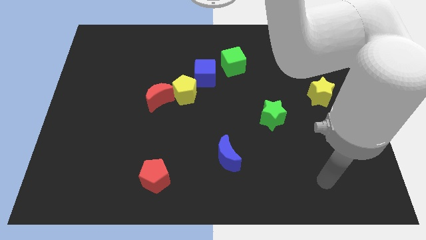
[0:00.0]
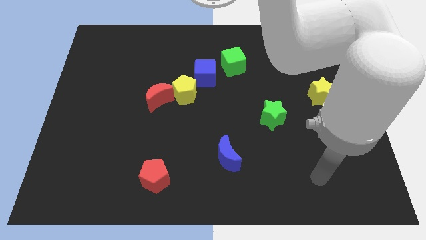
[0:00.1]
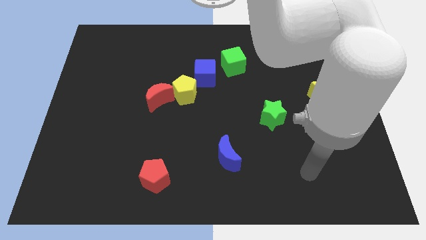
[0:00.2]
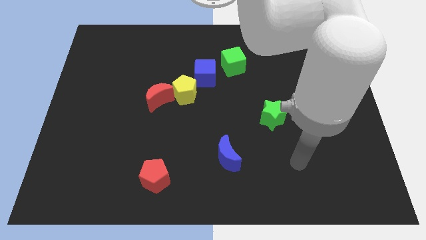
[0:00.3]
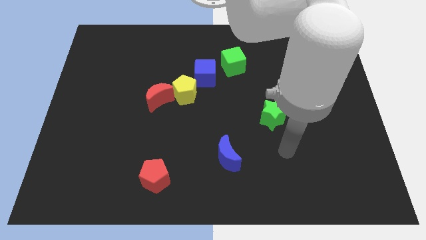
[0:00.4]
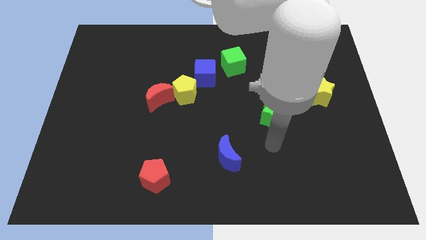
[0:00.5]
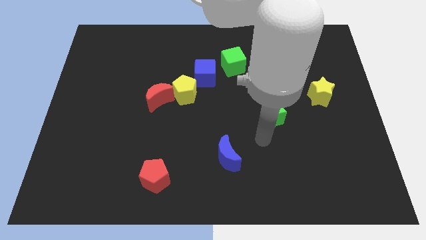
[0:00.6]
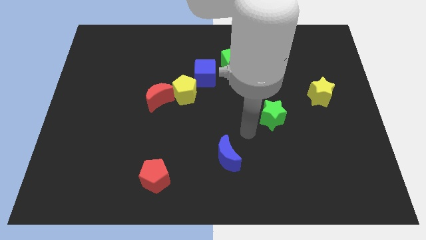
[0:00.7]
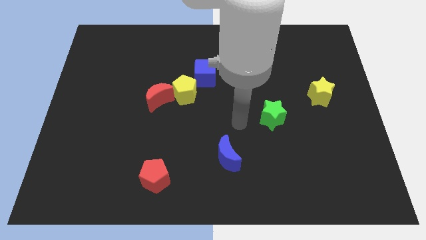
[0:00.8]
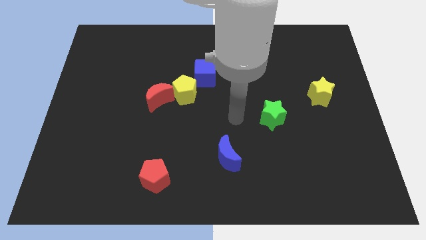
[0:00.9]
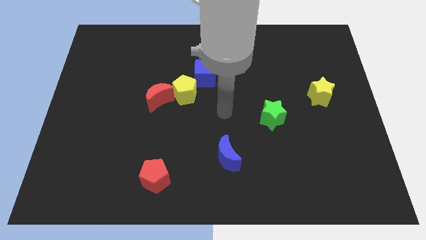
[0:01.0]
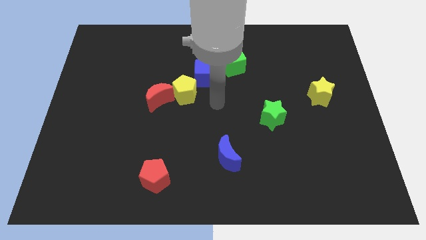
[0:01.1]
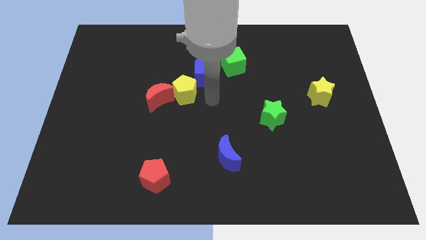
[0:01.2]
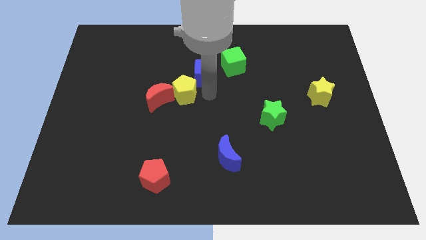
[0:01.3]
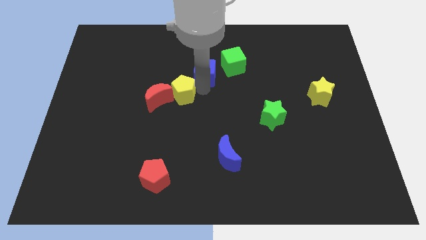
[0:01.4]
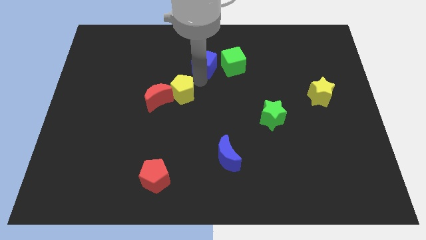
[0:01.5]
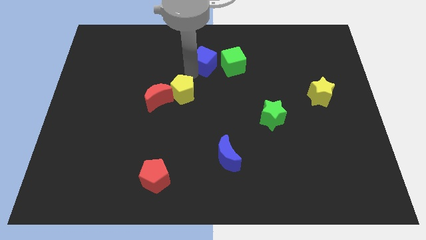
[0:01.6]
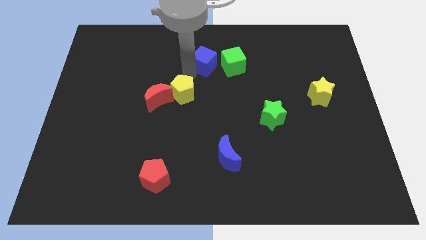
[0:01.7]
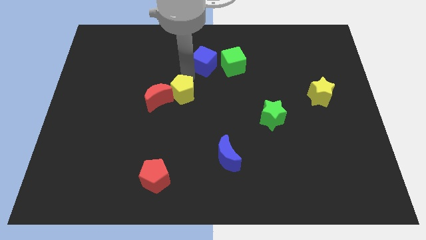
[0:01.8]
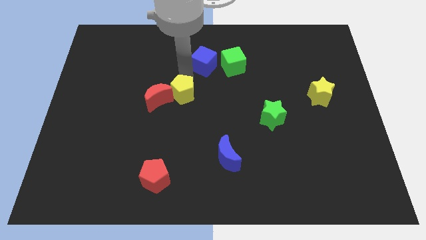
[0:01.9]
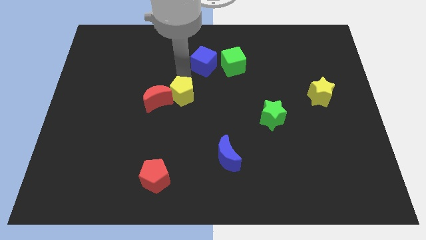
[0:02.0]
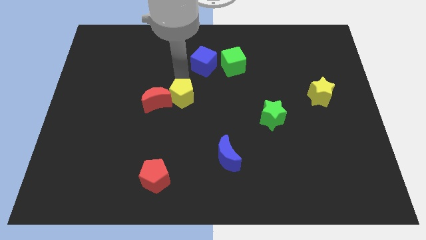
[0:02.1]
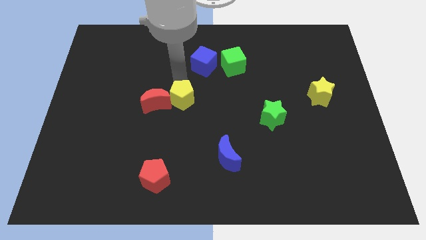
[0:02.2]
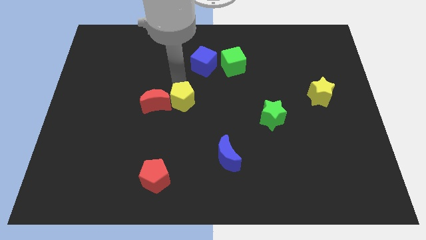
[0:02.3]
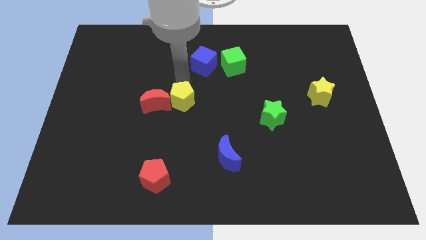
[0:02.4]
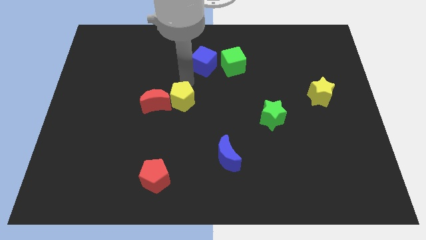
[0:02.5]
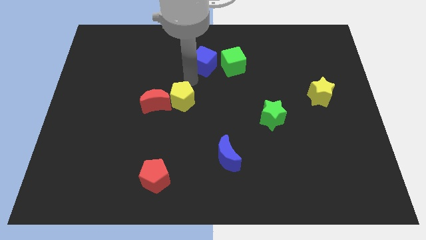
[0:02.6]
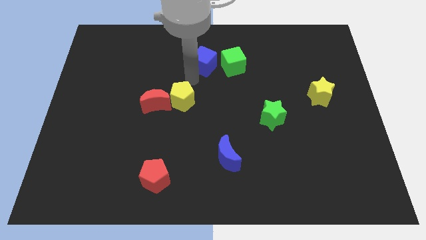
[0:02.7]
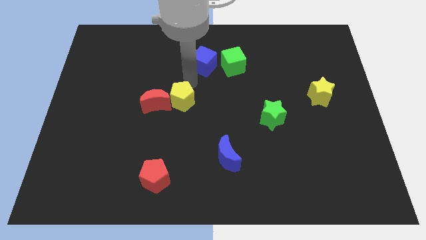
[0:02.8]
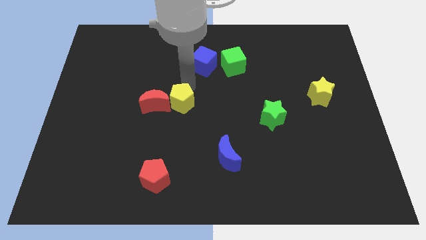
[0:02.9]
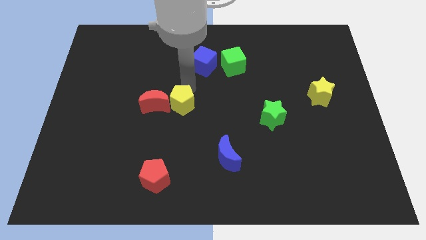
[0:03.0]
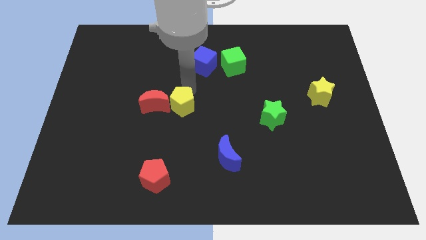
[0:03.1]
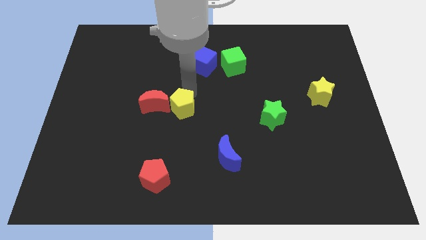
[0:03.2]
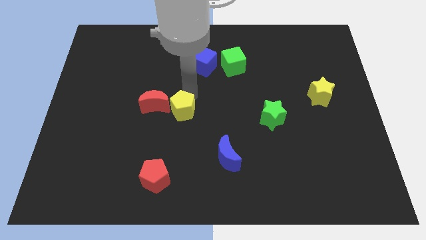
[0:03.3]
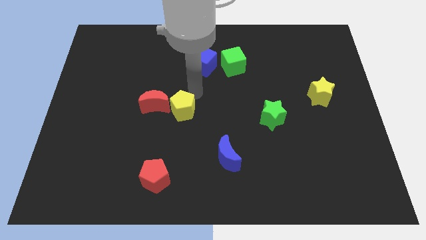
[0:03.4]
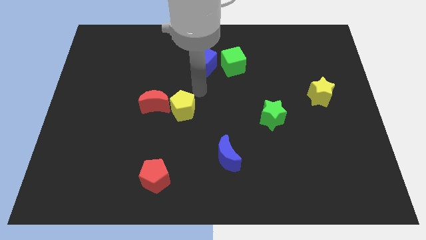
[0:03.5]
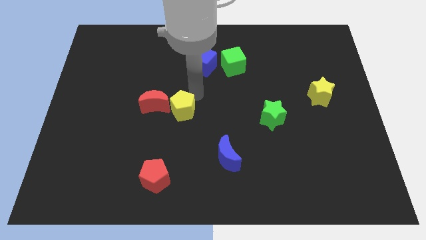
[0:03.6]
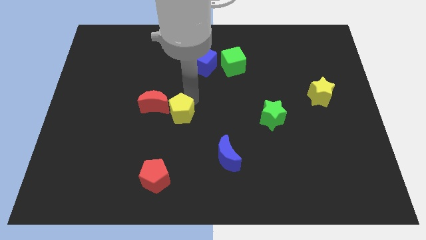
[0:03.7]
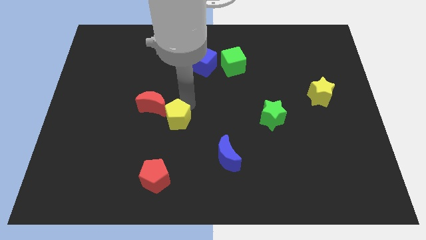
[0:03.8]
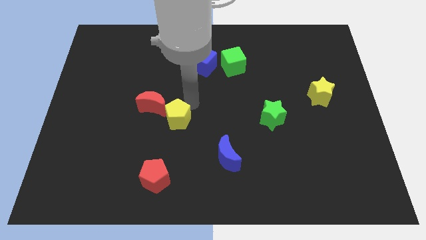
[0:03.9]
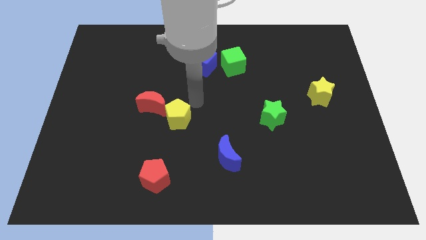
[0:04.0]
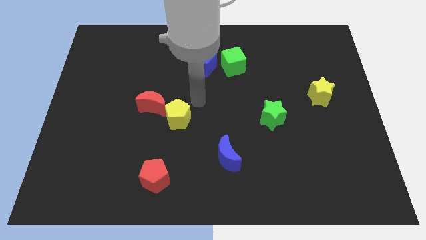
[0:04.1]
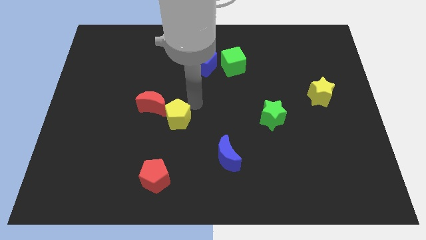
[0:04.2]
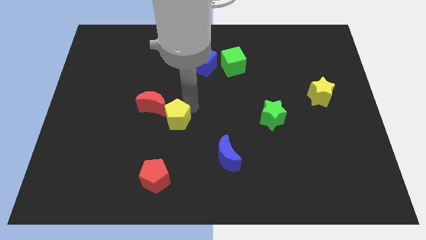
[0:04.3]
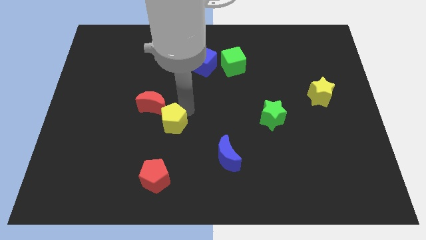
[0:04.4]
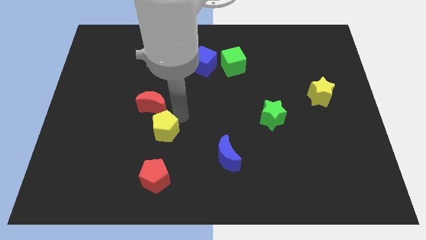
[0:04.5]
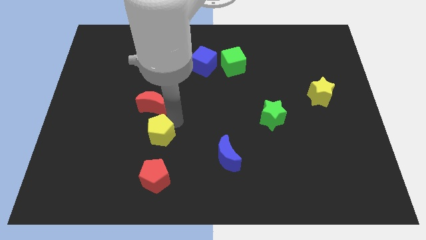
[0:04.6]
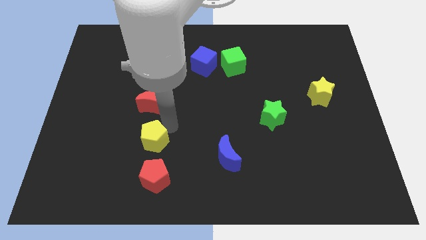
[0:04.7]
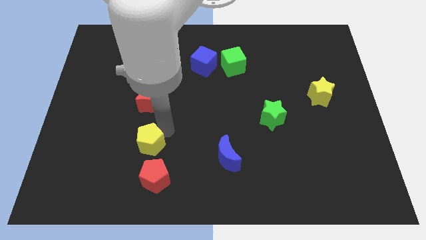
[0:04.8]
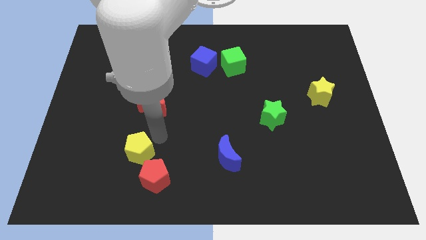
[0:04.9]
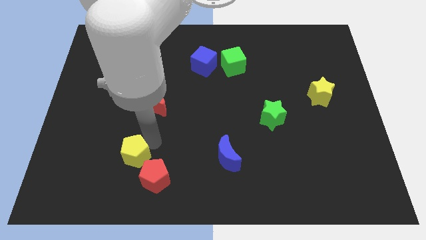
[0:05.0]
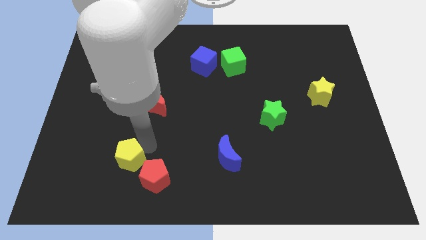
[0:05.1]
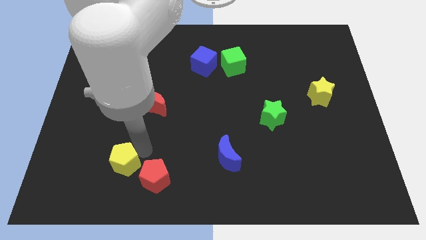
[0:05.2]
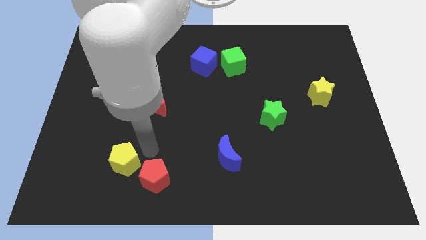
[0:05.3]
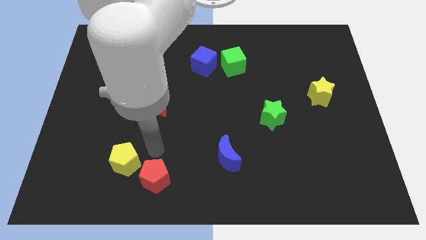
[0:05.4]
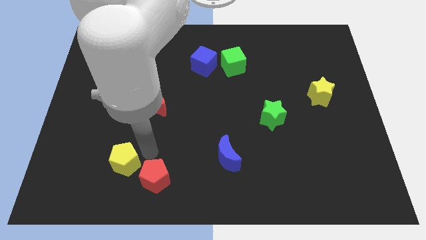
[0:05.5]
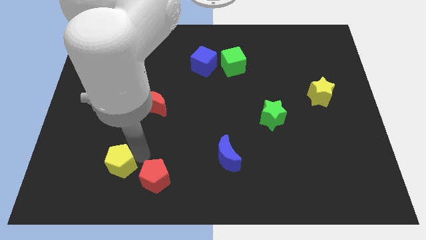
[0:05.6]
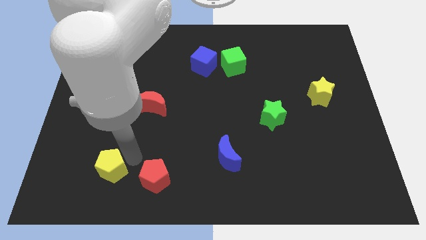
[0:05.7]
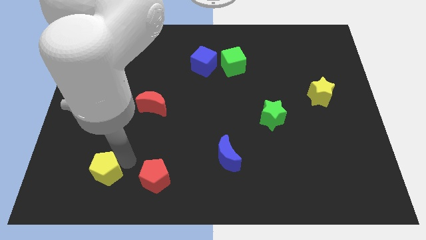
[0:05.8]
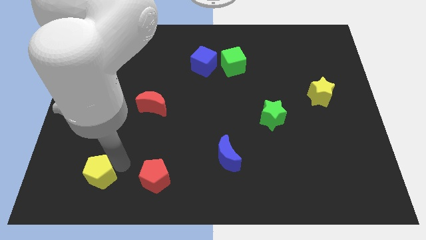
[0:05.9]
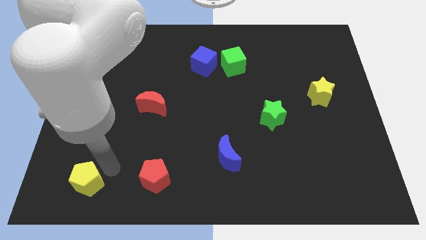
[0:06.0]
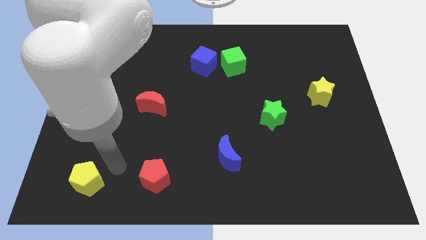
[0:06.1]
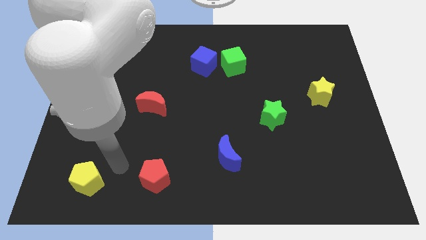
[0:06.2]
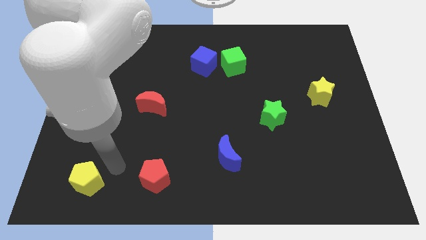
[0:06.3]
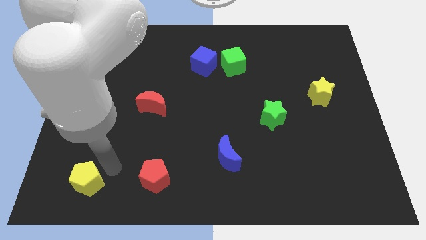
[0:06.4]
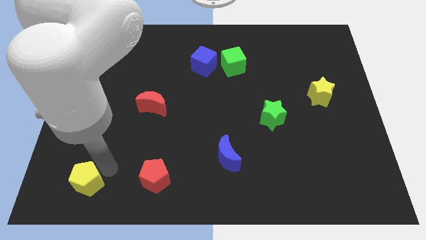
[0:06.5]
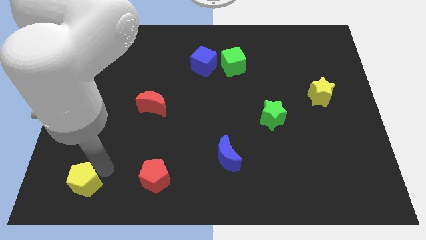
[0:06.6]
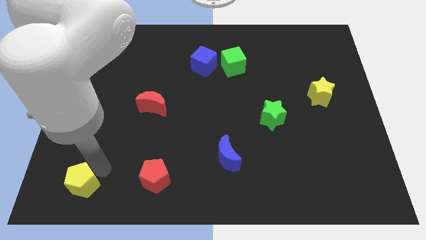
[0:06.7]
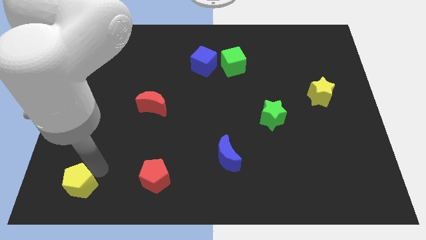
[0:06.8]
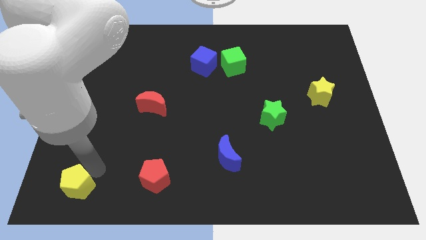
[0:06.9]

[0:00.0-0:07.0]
put the yellow pentagon to the bottom left
